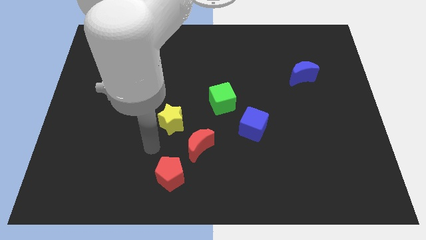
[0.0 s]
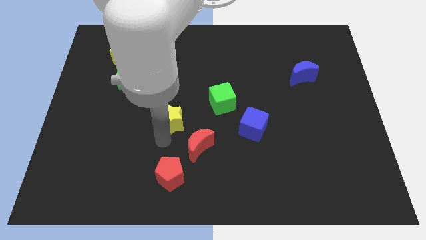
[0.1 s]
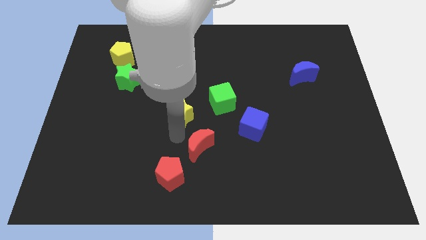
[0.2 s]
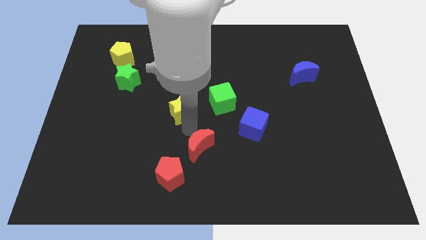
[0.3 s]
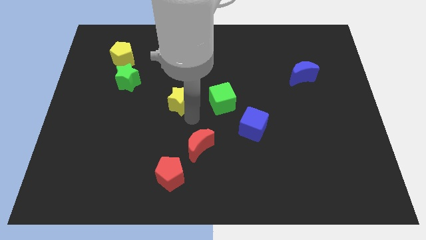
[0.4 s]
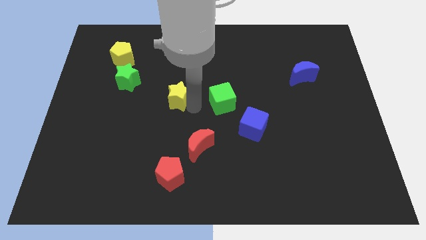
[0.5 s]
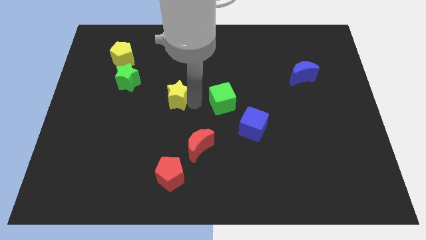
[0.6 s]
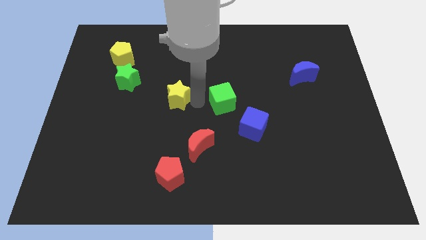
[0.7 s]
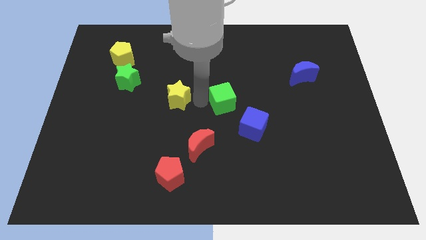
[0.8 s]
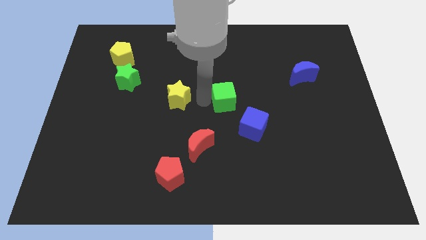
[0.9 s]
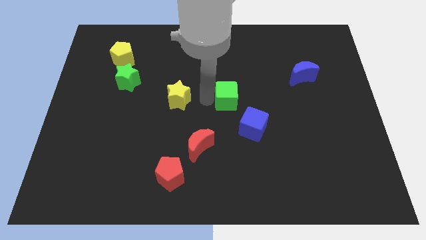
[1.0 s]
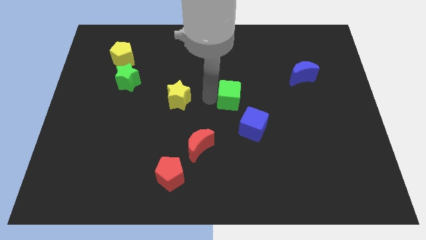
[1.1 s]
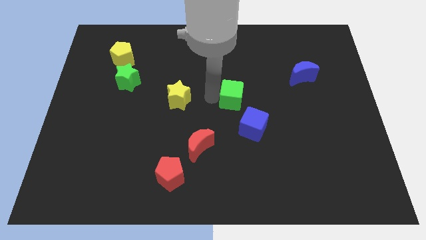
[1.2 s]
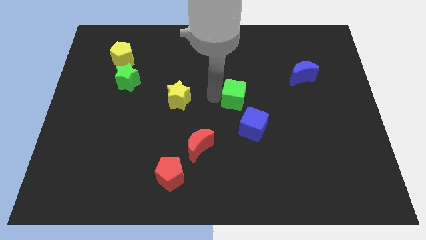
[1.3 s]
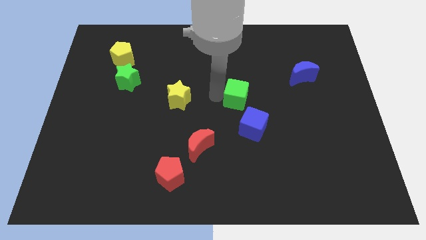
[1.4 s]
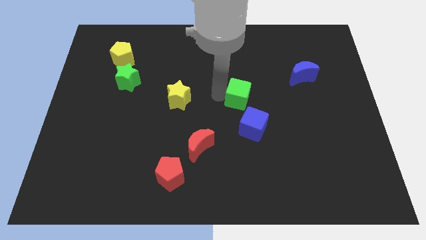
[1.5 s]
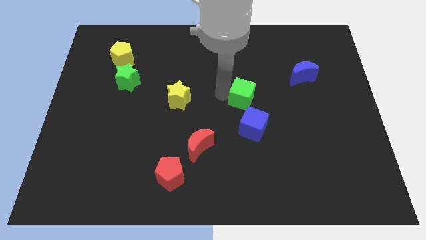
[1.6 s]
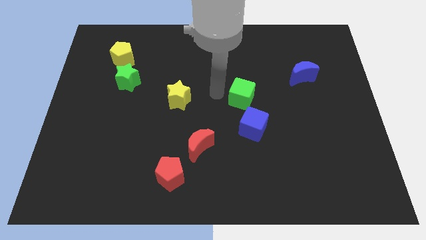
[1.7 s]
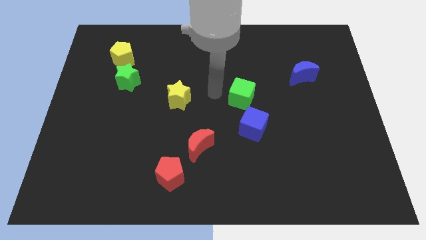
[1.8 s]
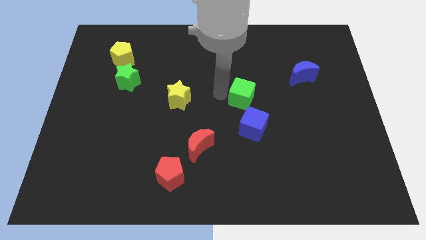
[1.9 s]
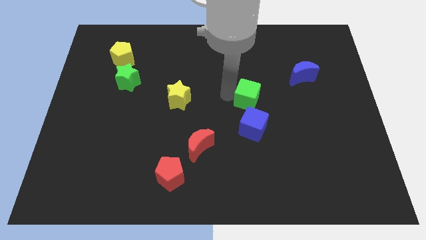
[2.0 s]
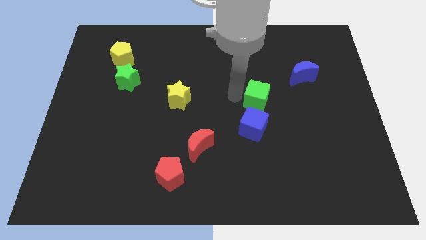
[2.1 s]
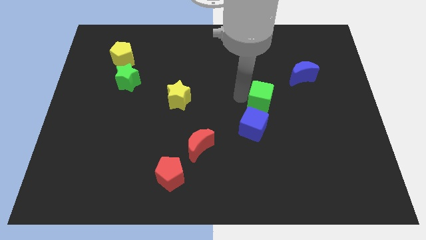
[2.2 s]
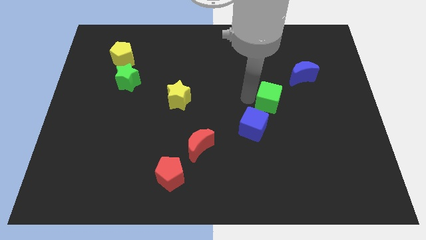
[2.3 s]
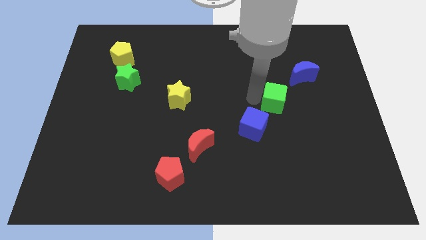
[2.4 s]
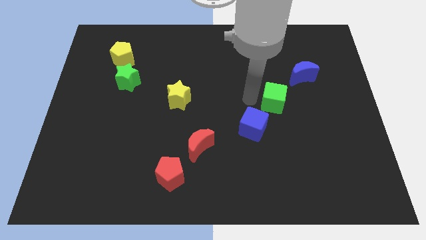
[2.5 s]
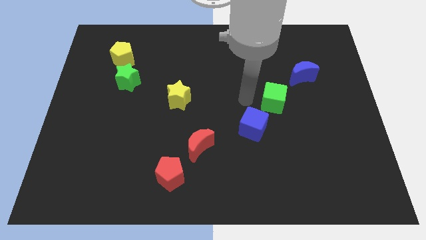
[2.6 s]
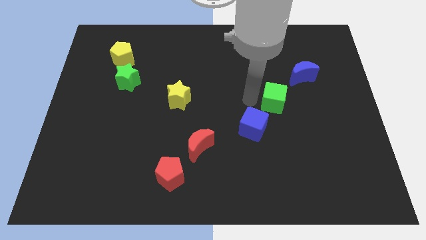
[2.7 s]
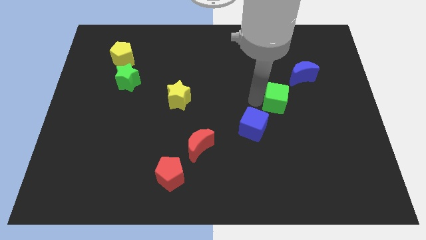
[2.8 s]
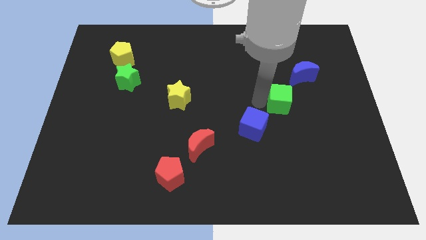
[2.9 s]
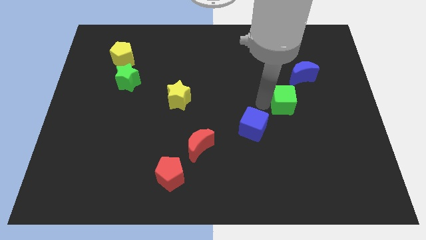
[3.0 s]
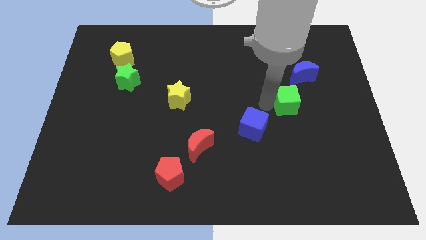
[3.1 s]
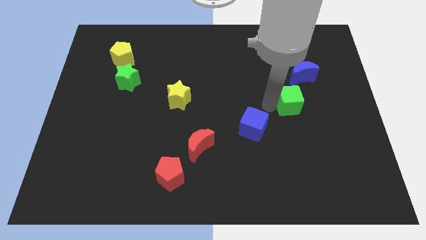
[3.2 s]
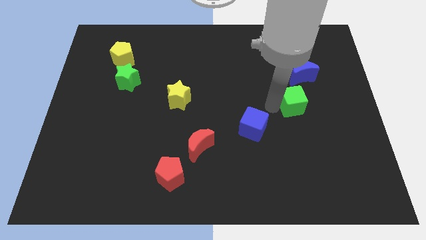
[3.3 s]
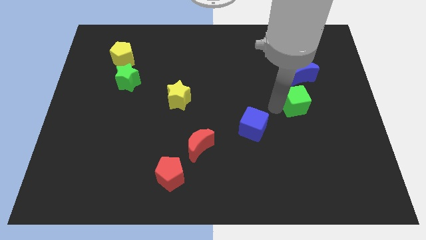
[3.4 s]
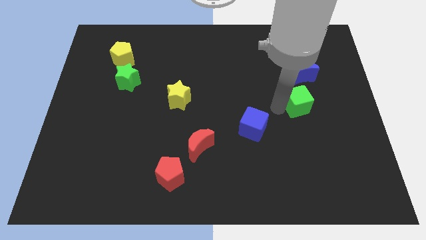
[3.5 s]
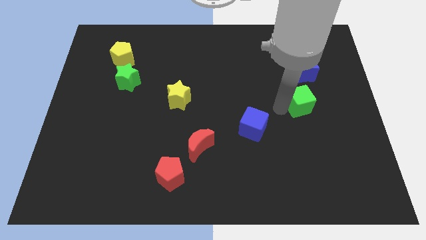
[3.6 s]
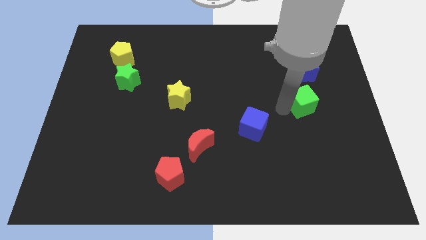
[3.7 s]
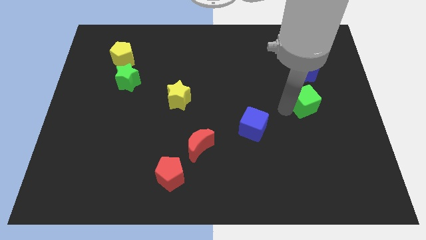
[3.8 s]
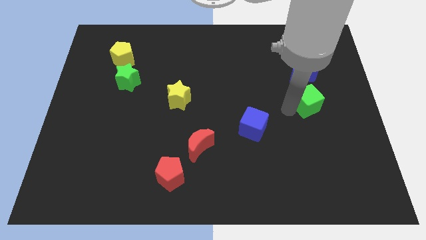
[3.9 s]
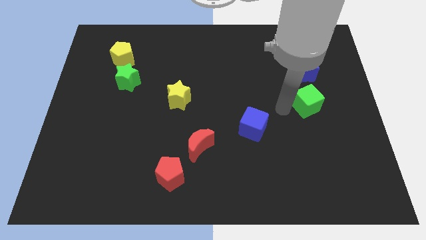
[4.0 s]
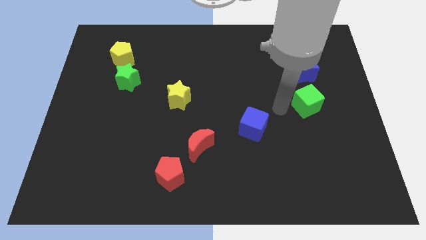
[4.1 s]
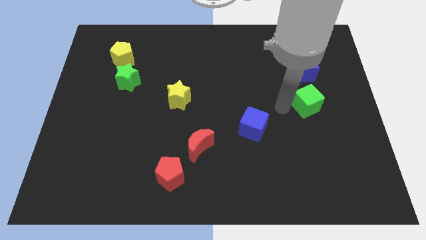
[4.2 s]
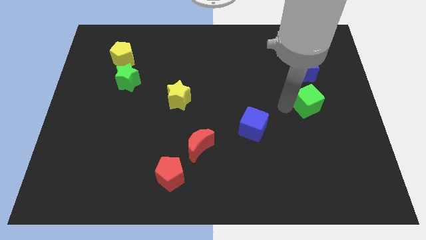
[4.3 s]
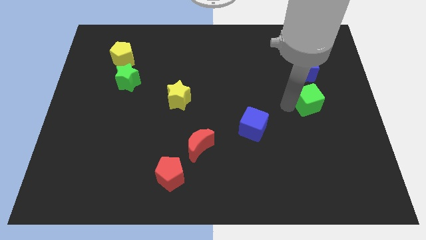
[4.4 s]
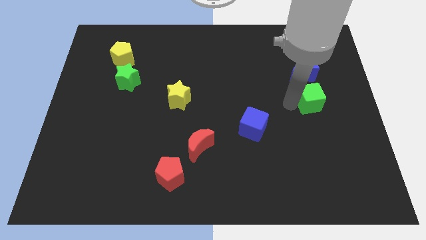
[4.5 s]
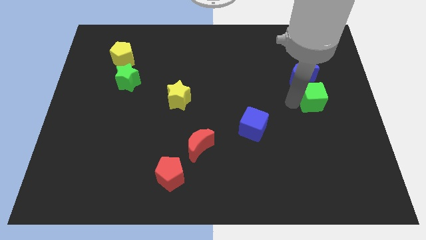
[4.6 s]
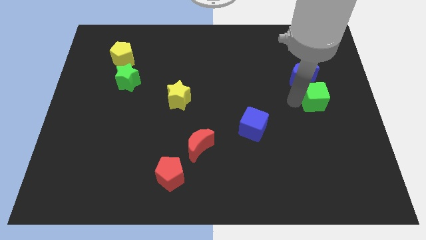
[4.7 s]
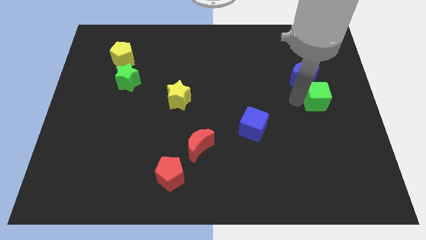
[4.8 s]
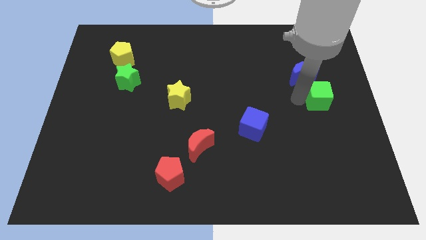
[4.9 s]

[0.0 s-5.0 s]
slide the green cube to the right side

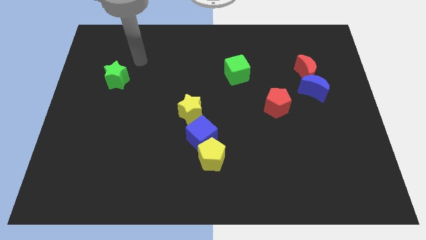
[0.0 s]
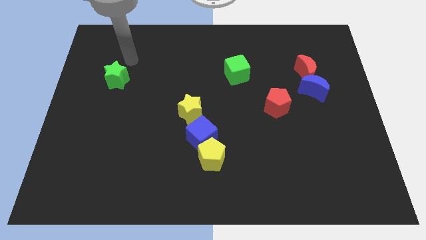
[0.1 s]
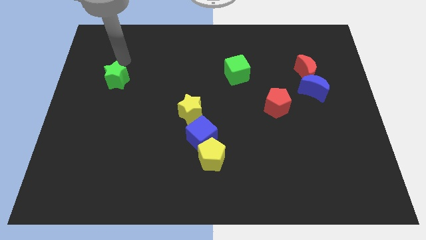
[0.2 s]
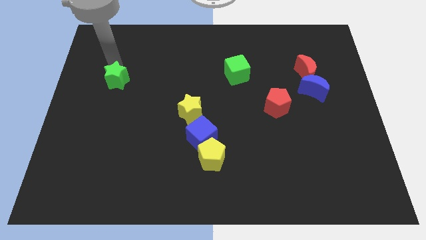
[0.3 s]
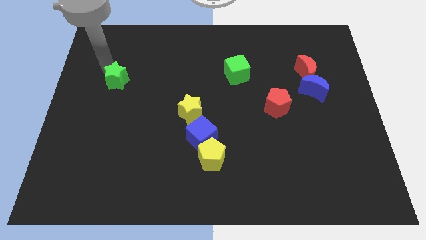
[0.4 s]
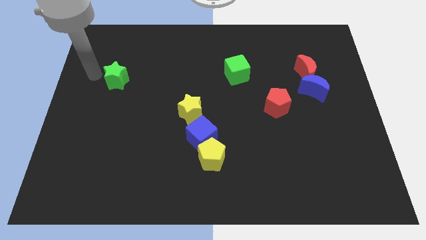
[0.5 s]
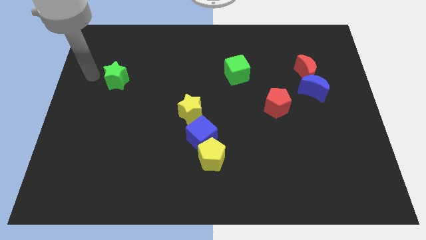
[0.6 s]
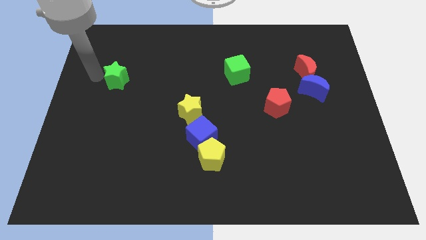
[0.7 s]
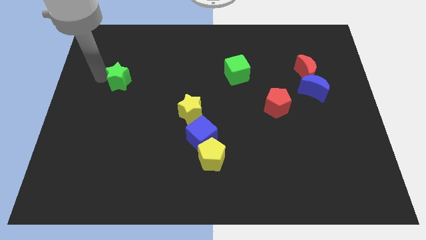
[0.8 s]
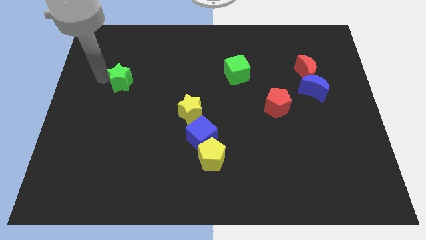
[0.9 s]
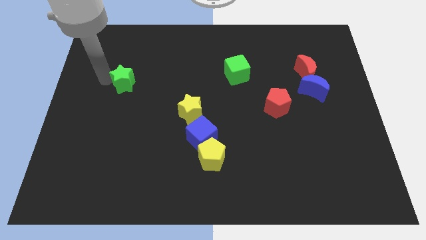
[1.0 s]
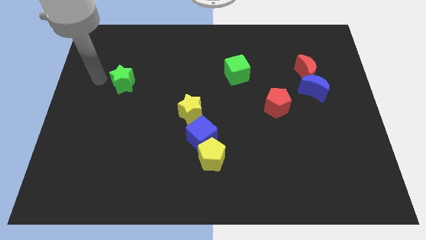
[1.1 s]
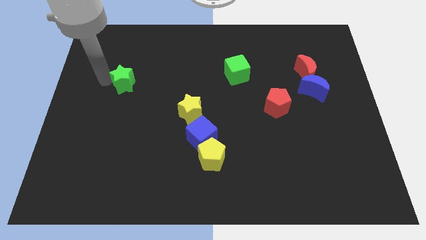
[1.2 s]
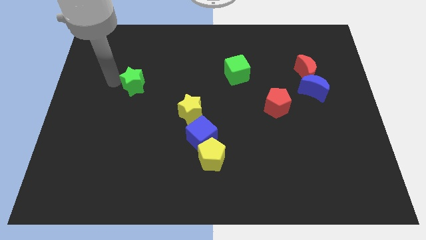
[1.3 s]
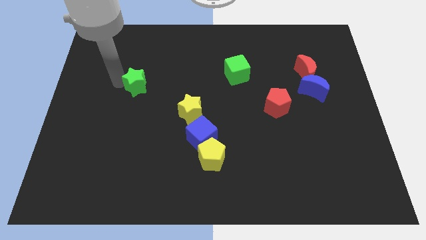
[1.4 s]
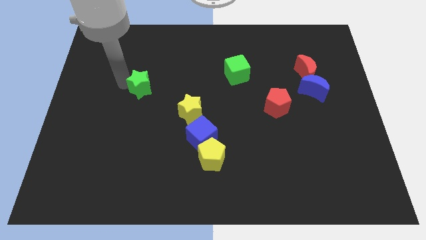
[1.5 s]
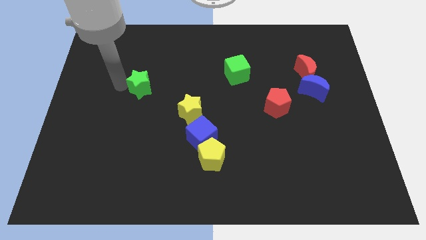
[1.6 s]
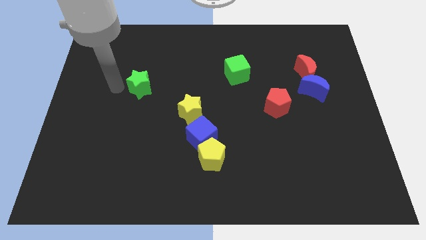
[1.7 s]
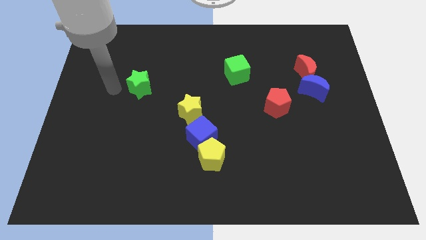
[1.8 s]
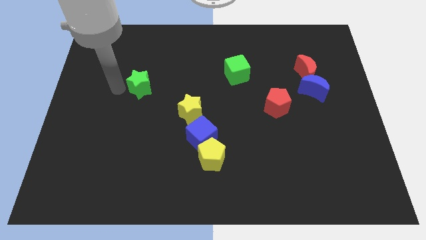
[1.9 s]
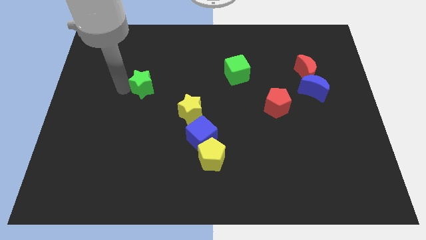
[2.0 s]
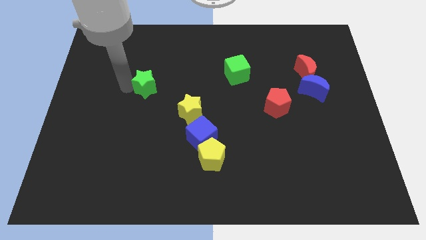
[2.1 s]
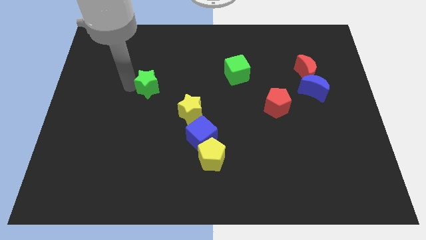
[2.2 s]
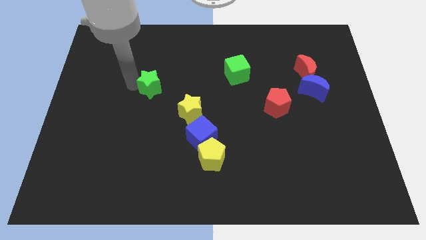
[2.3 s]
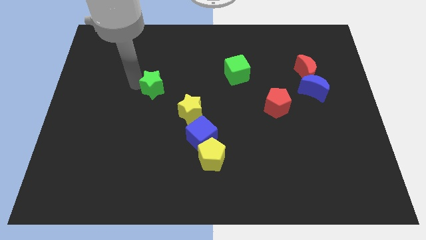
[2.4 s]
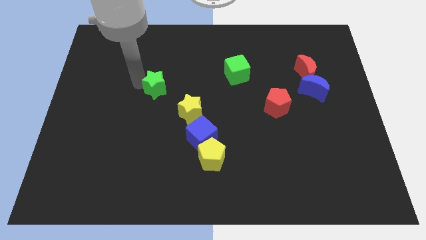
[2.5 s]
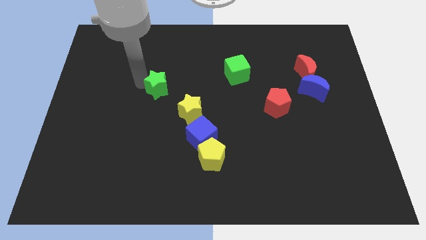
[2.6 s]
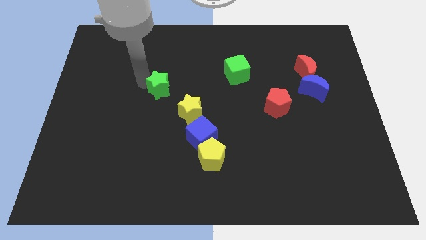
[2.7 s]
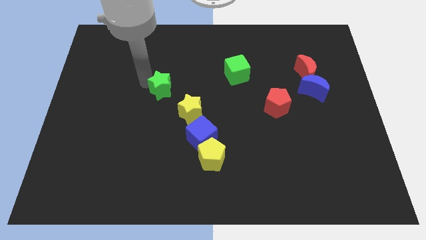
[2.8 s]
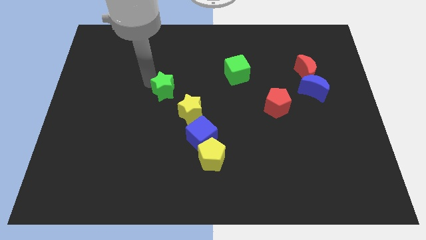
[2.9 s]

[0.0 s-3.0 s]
move the green star to the middle
